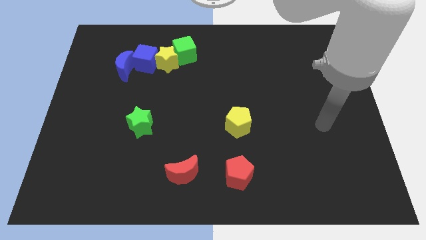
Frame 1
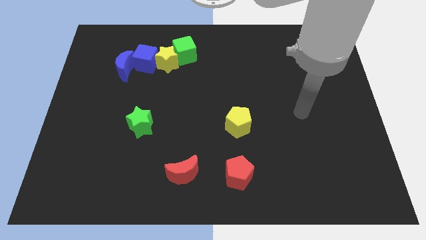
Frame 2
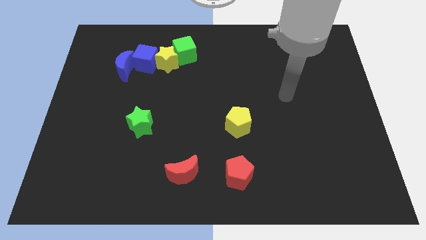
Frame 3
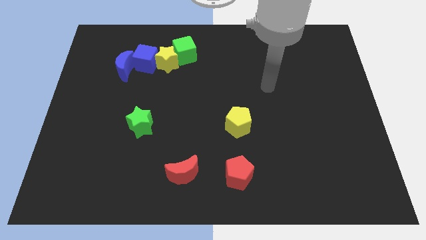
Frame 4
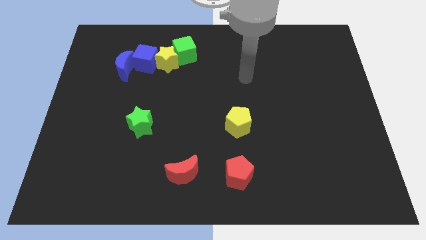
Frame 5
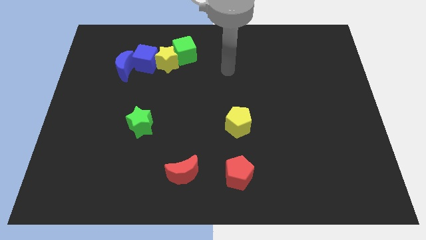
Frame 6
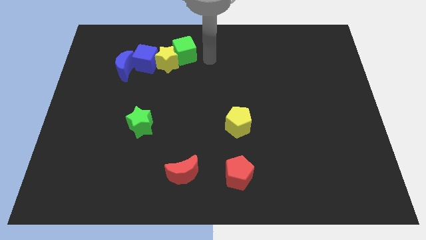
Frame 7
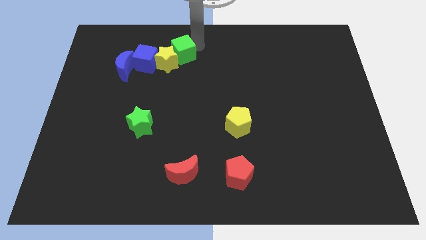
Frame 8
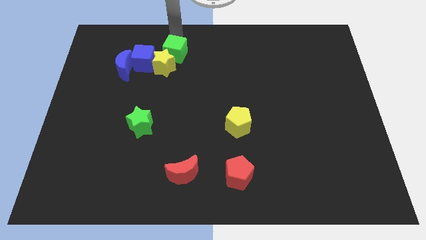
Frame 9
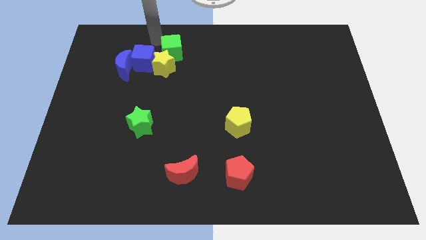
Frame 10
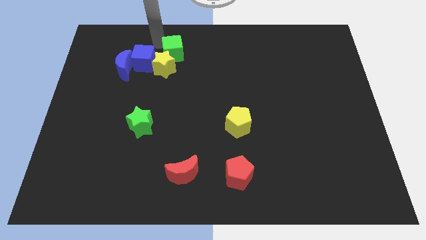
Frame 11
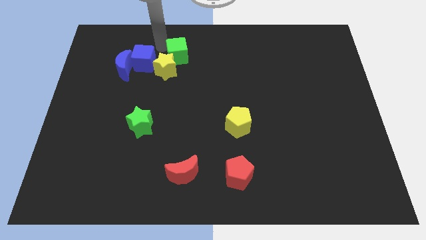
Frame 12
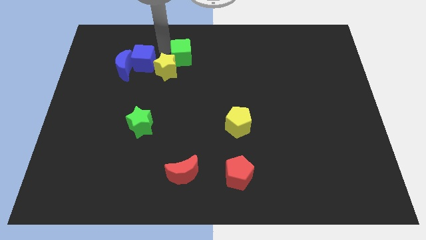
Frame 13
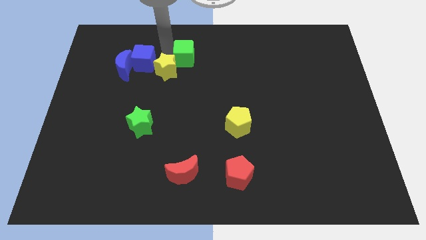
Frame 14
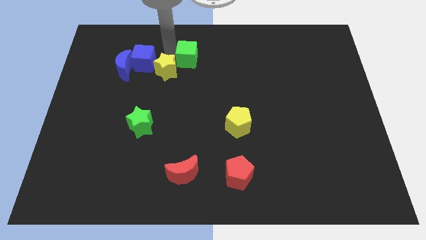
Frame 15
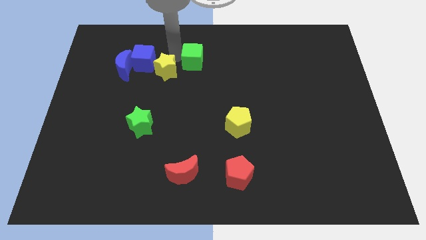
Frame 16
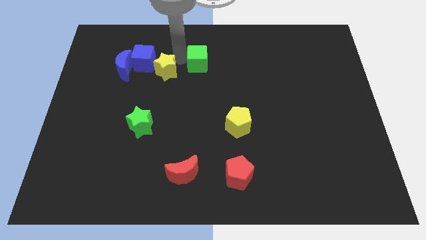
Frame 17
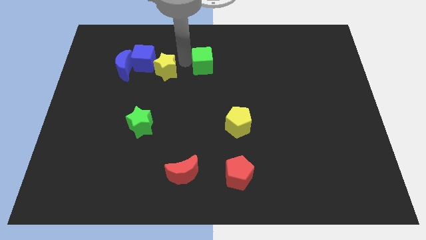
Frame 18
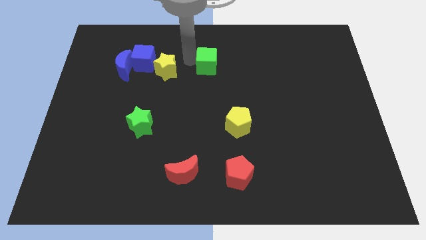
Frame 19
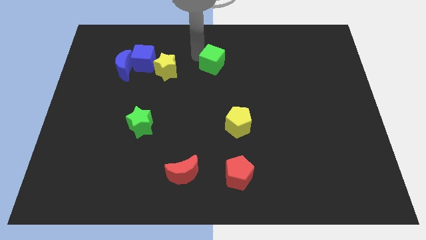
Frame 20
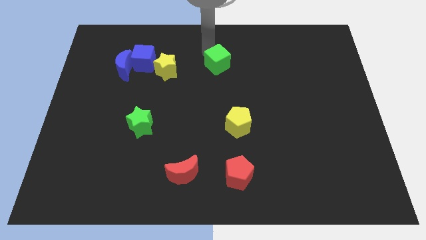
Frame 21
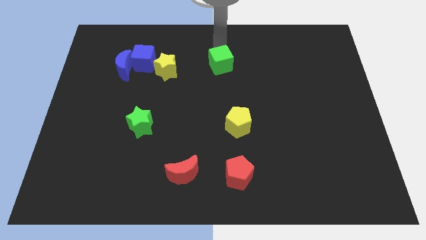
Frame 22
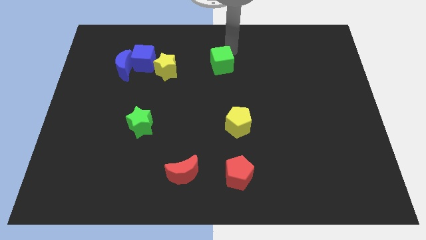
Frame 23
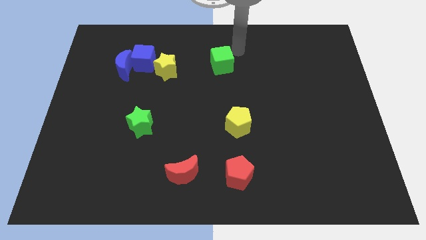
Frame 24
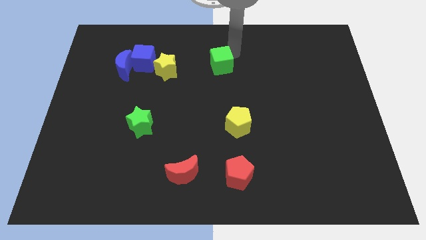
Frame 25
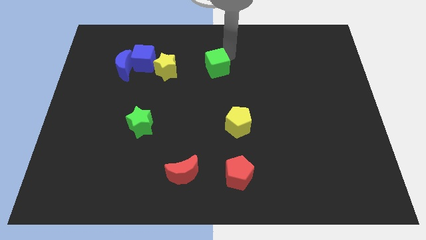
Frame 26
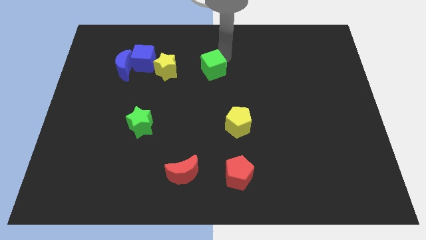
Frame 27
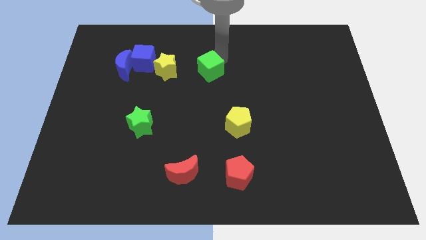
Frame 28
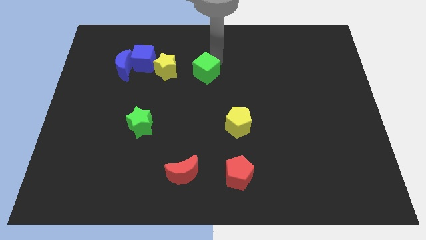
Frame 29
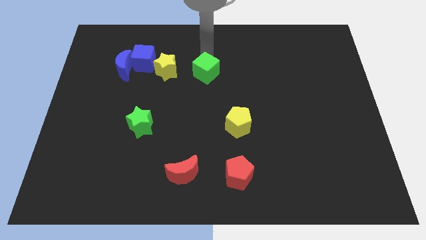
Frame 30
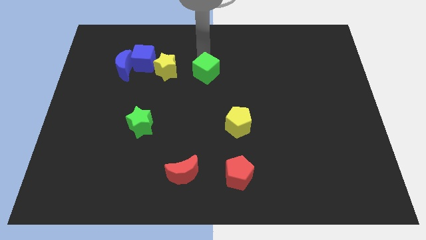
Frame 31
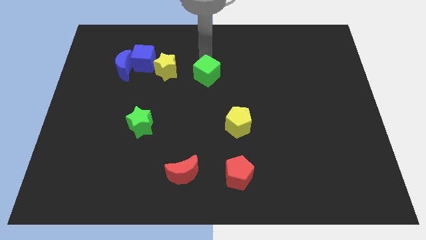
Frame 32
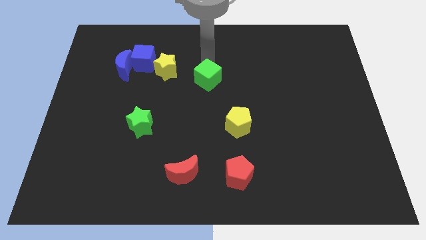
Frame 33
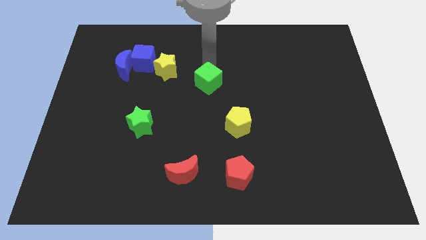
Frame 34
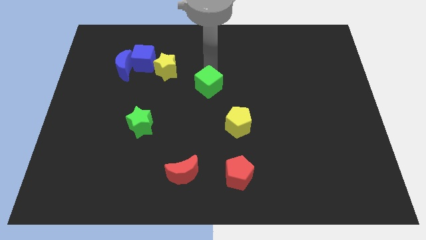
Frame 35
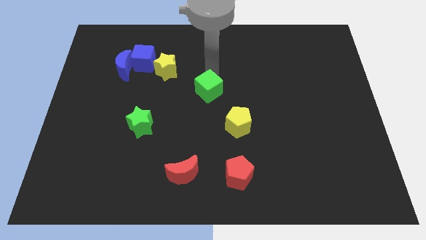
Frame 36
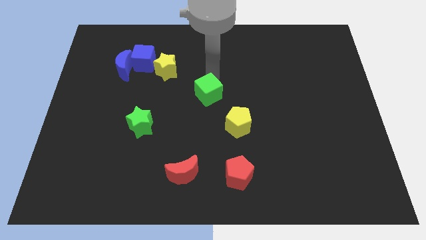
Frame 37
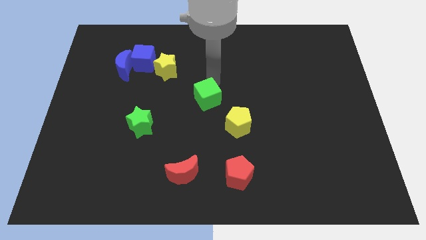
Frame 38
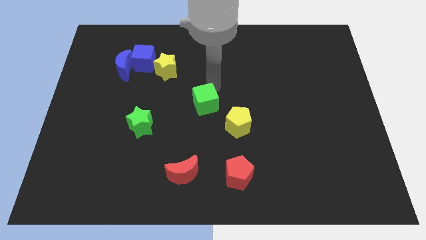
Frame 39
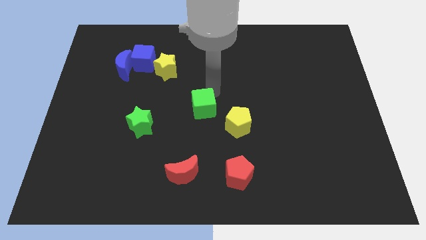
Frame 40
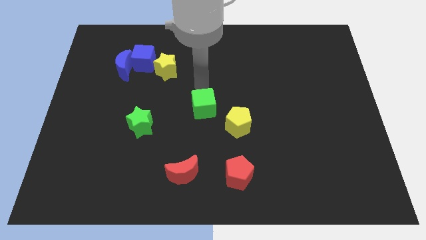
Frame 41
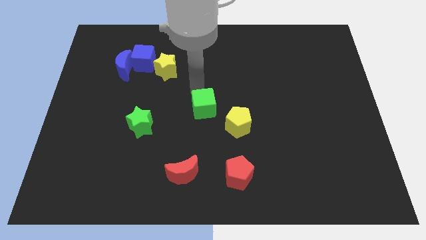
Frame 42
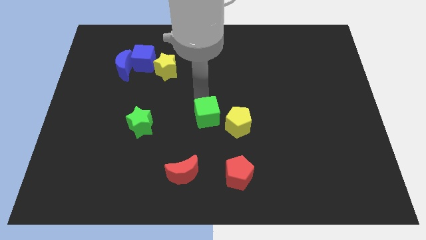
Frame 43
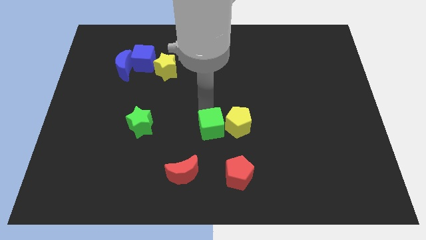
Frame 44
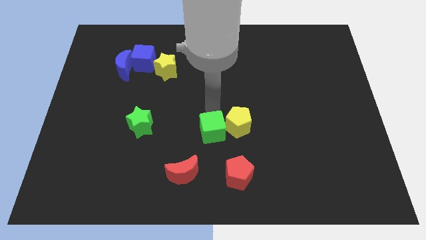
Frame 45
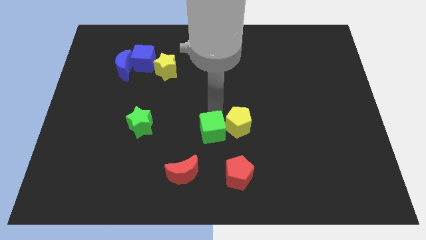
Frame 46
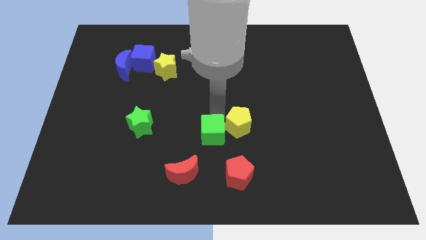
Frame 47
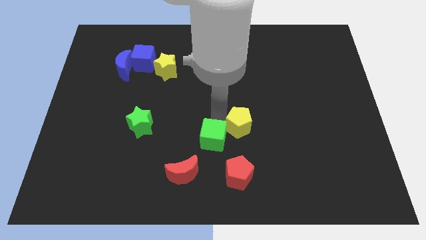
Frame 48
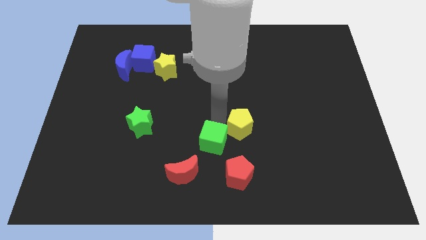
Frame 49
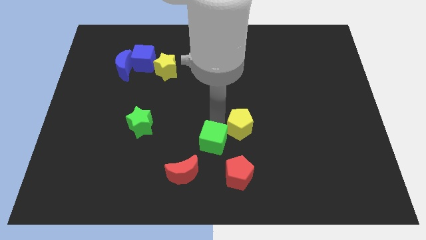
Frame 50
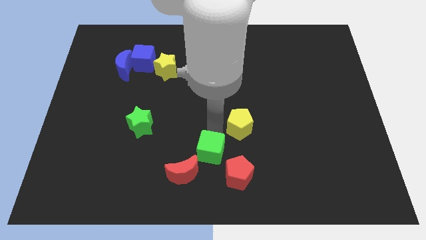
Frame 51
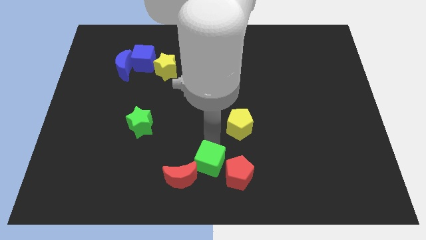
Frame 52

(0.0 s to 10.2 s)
move the green cube to the bottom side
